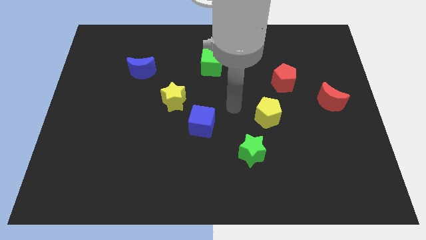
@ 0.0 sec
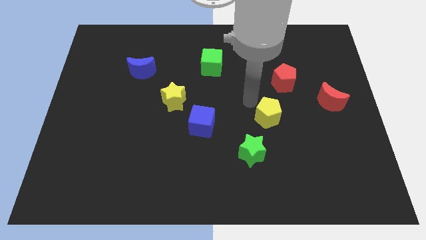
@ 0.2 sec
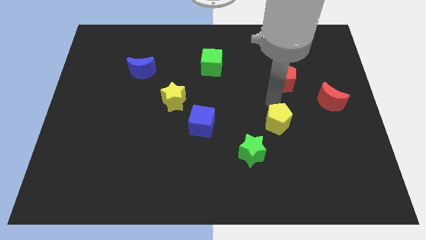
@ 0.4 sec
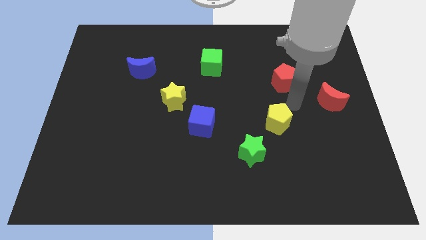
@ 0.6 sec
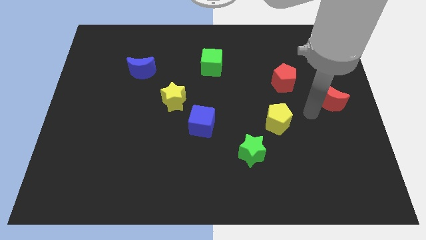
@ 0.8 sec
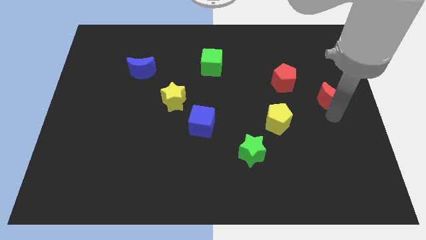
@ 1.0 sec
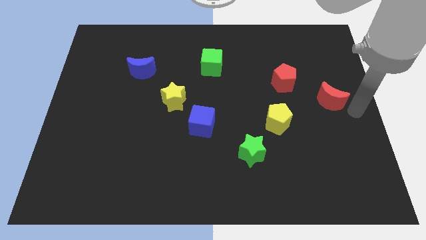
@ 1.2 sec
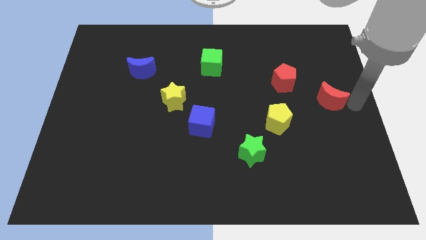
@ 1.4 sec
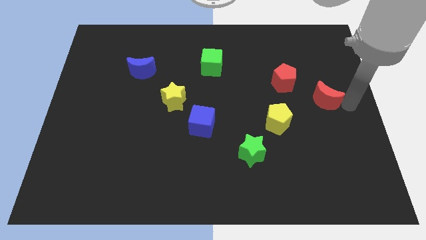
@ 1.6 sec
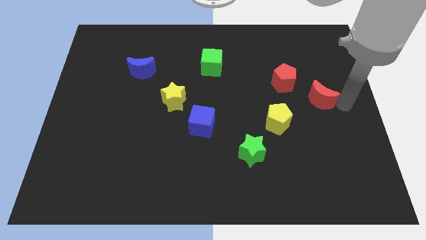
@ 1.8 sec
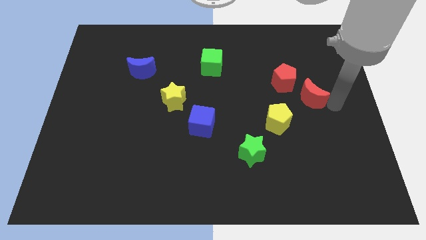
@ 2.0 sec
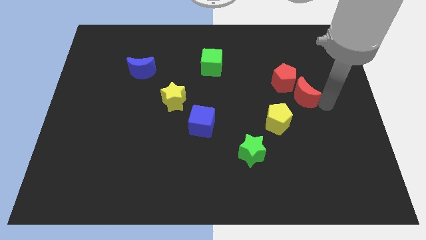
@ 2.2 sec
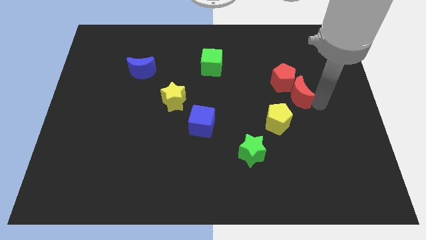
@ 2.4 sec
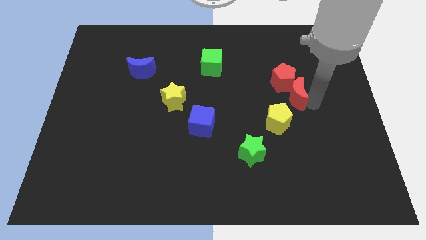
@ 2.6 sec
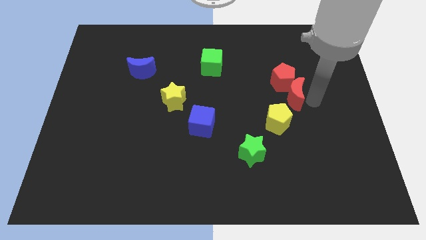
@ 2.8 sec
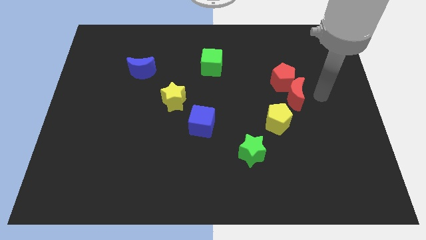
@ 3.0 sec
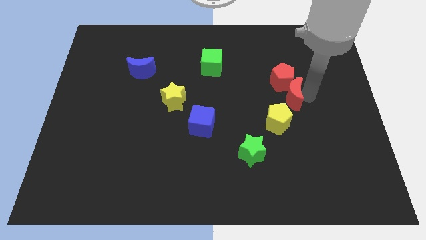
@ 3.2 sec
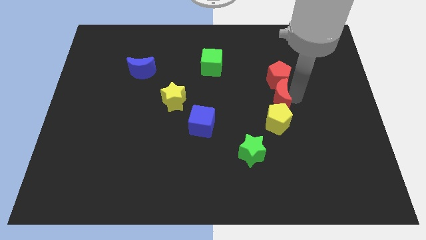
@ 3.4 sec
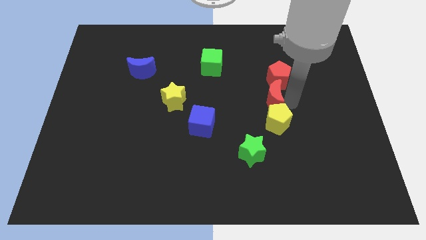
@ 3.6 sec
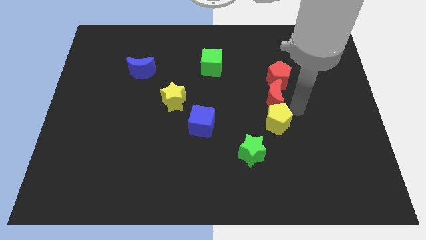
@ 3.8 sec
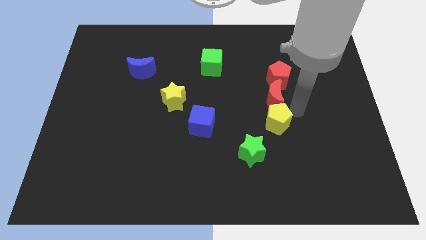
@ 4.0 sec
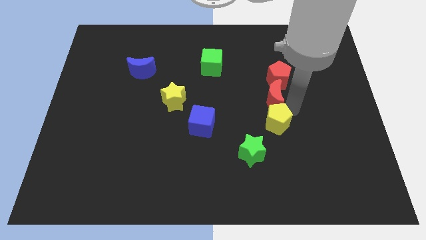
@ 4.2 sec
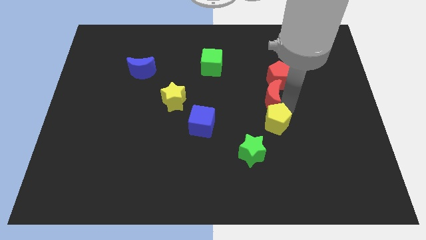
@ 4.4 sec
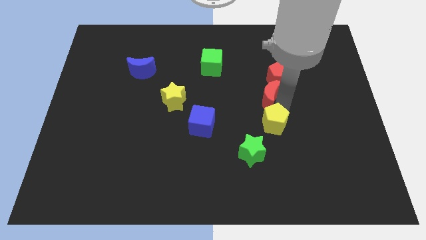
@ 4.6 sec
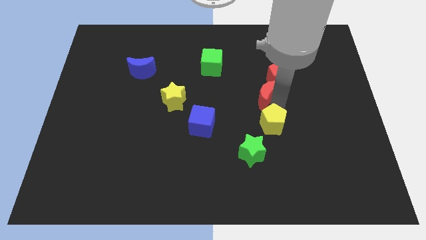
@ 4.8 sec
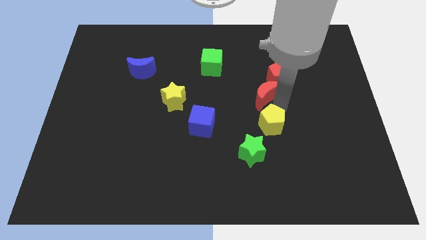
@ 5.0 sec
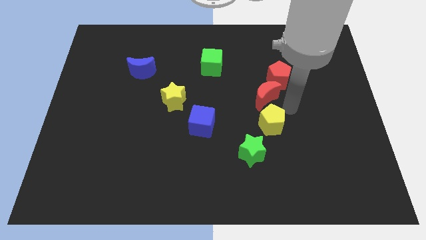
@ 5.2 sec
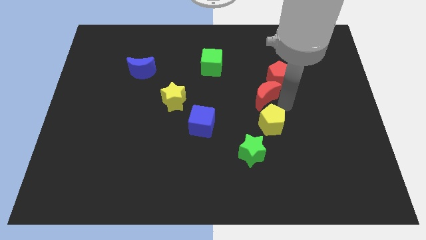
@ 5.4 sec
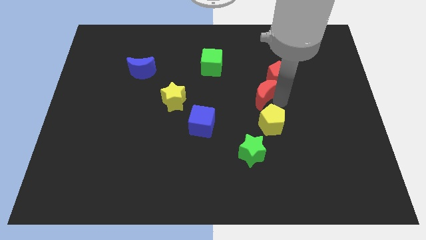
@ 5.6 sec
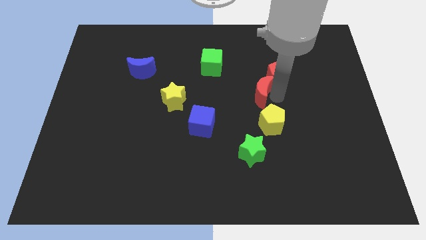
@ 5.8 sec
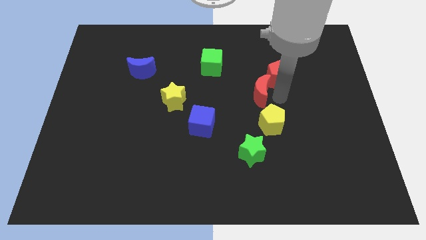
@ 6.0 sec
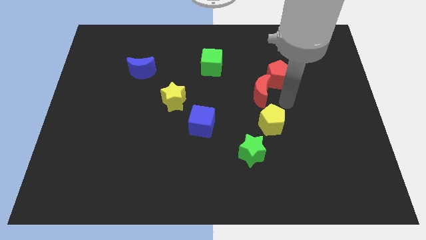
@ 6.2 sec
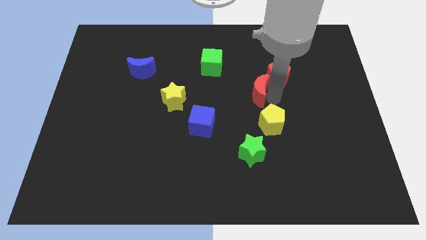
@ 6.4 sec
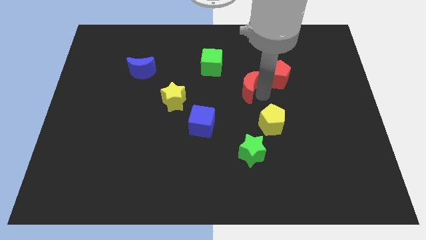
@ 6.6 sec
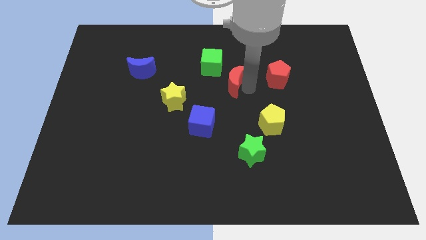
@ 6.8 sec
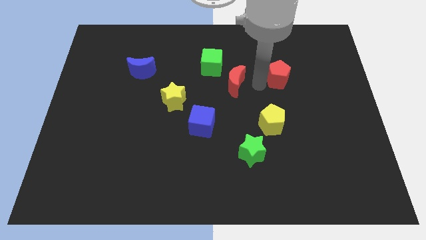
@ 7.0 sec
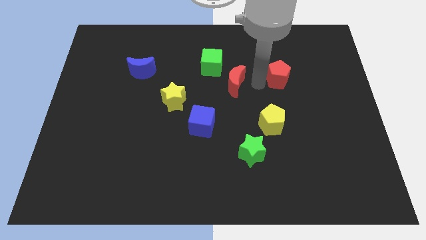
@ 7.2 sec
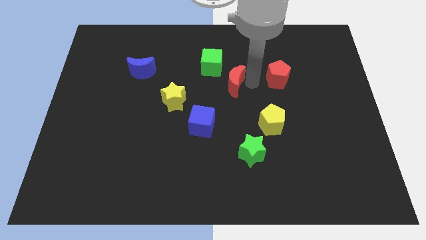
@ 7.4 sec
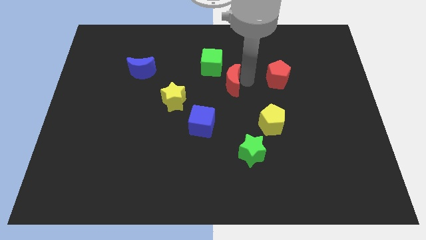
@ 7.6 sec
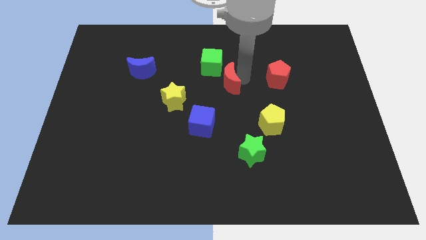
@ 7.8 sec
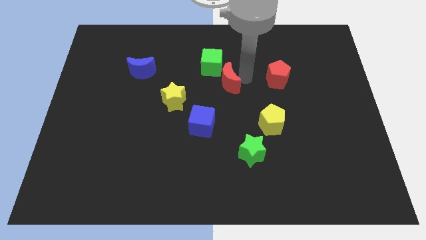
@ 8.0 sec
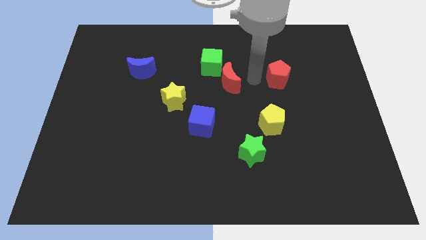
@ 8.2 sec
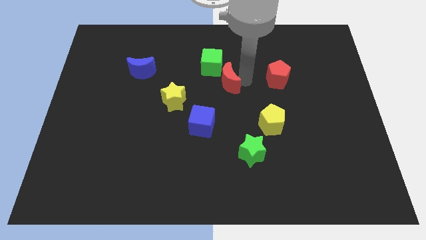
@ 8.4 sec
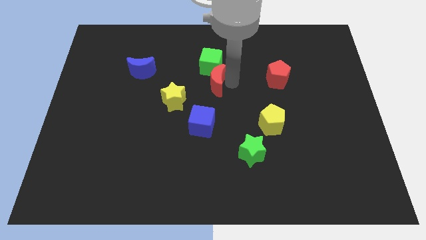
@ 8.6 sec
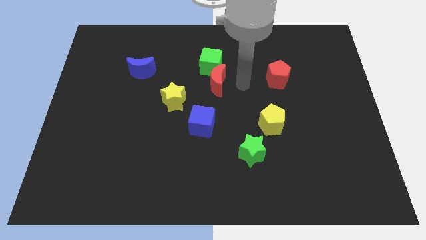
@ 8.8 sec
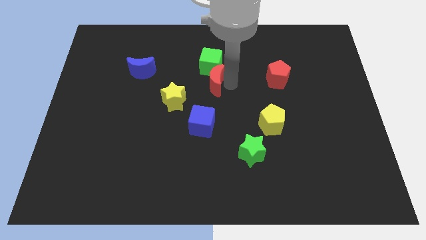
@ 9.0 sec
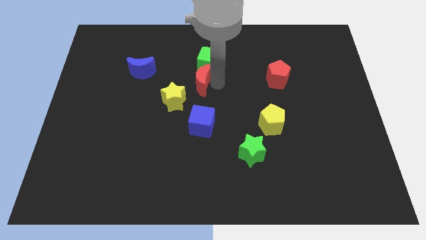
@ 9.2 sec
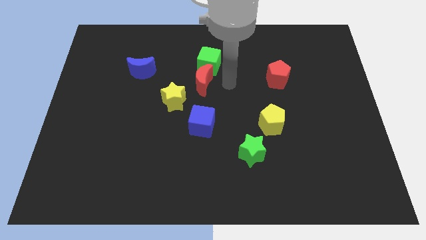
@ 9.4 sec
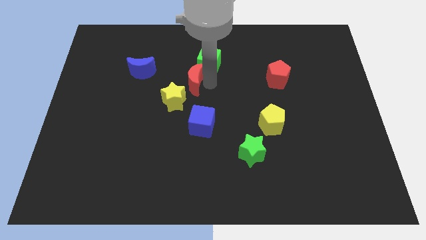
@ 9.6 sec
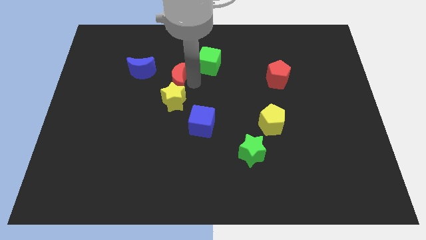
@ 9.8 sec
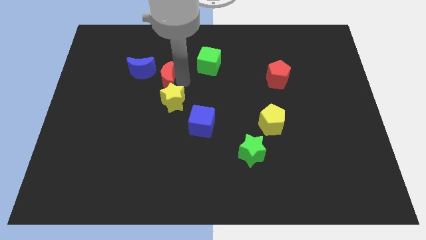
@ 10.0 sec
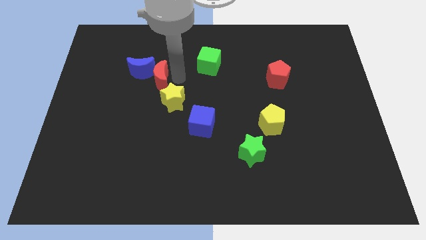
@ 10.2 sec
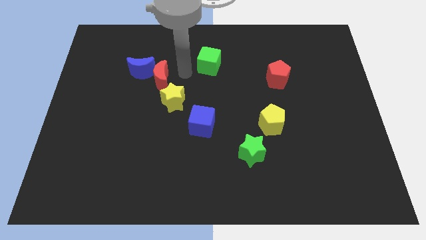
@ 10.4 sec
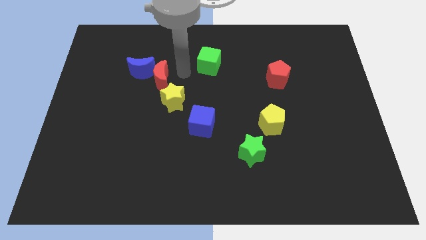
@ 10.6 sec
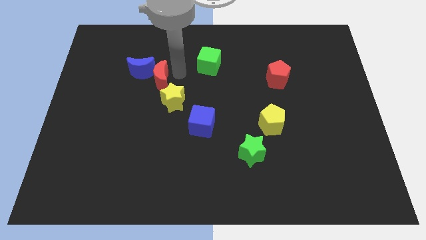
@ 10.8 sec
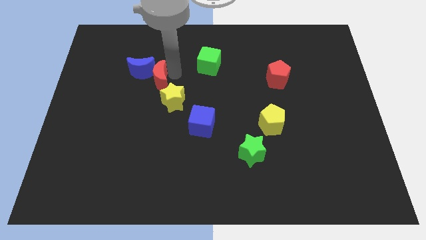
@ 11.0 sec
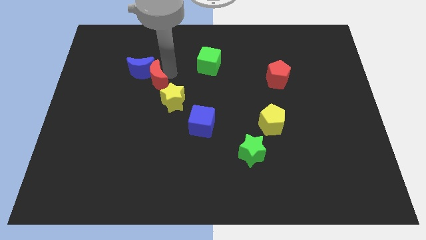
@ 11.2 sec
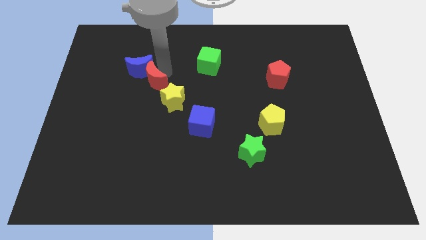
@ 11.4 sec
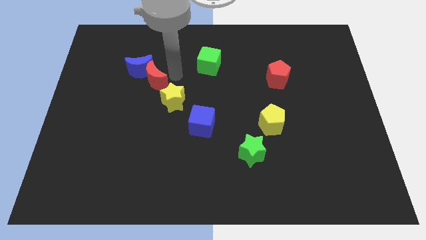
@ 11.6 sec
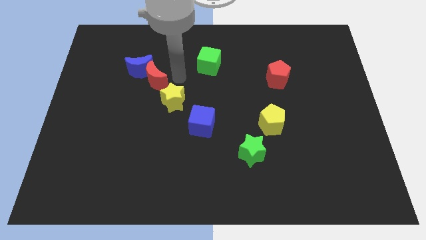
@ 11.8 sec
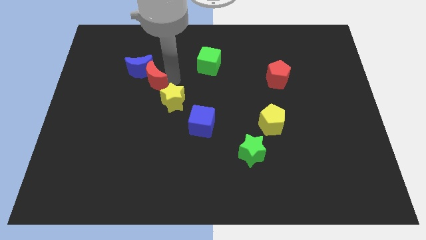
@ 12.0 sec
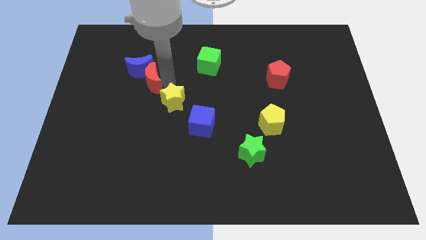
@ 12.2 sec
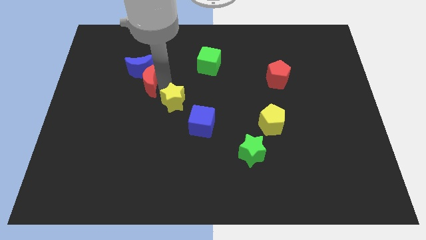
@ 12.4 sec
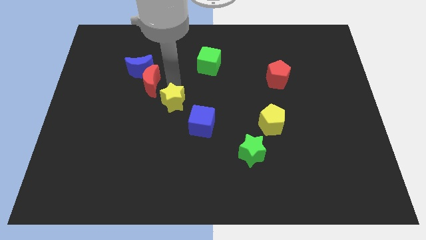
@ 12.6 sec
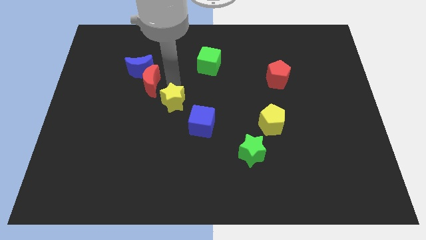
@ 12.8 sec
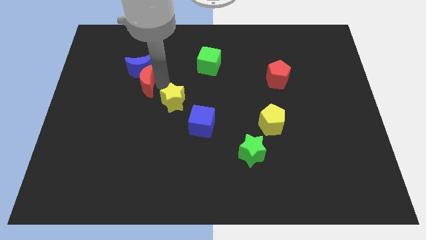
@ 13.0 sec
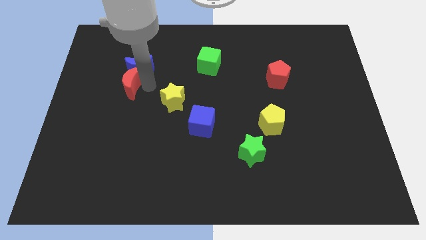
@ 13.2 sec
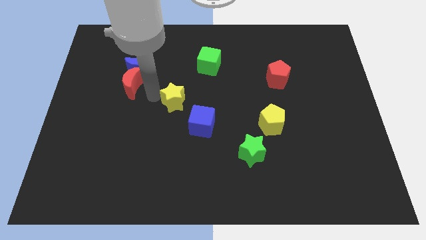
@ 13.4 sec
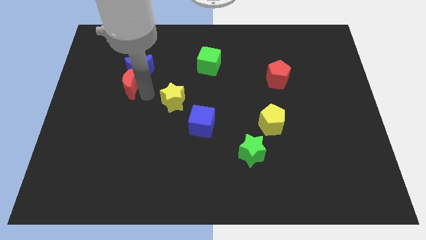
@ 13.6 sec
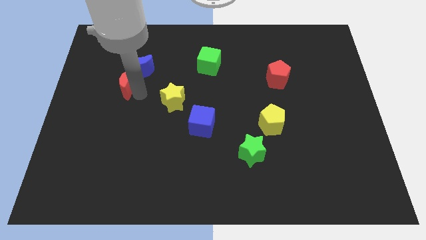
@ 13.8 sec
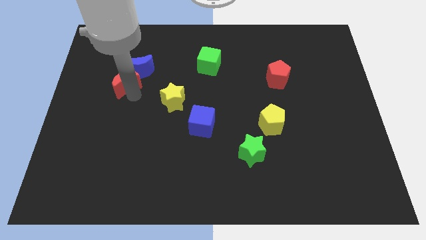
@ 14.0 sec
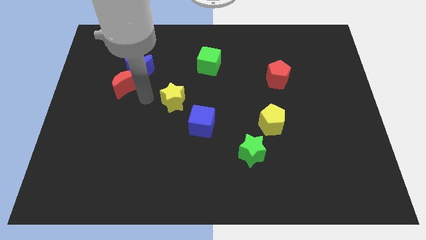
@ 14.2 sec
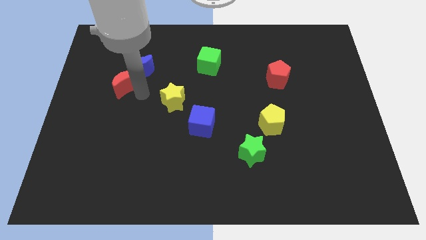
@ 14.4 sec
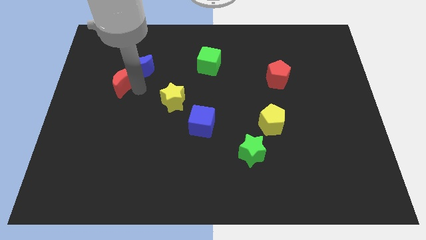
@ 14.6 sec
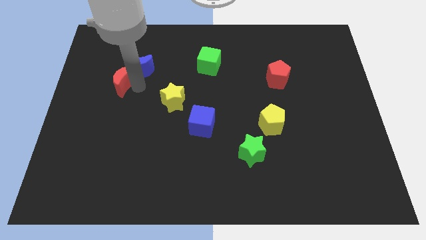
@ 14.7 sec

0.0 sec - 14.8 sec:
put the red moon to the left side of the blue moon
